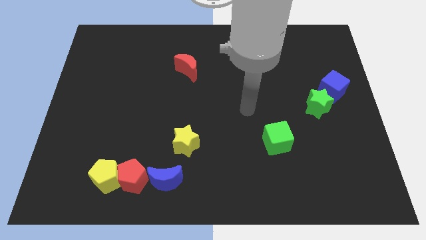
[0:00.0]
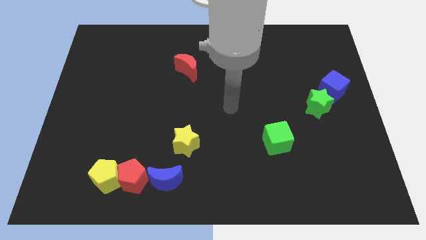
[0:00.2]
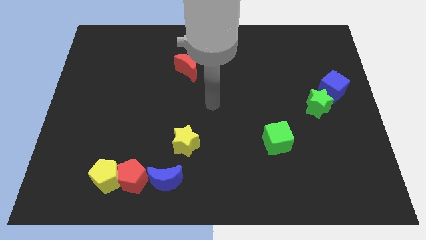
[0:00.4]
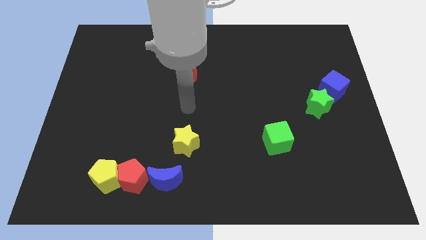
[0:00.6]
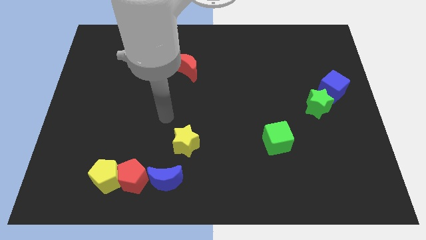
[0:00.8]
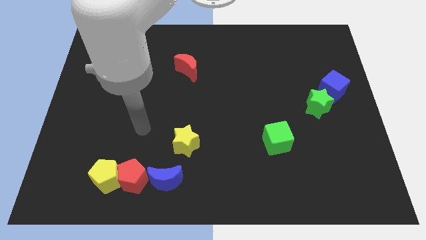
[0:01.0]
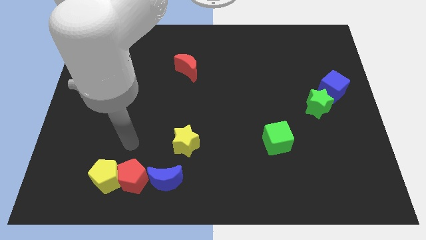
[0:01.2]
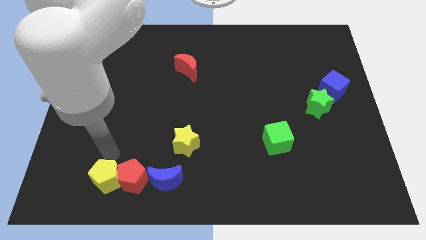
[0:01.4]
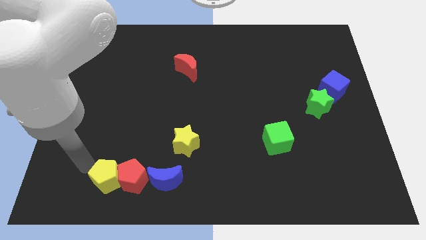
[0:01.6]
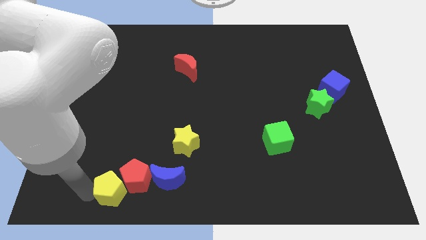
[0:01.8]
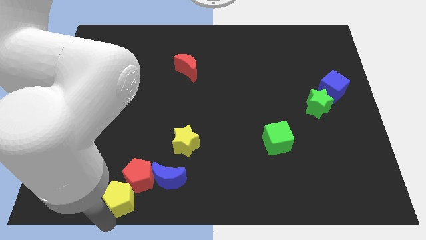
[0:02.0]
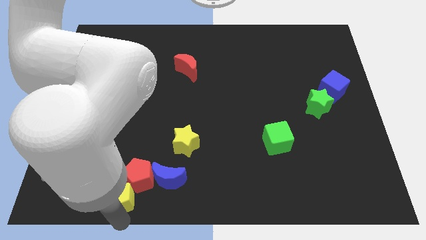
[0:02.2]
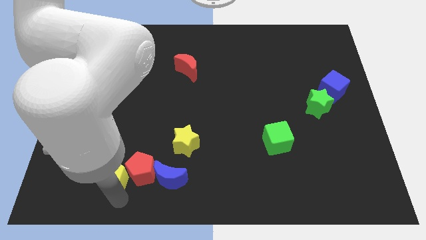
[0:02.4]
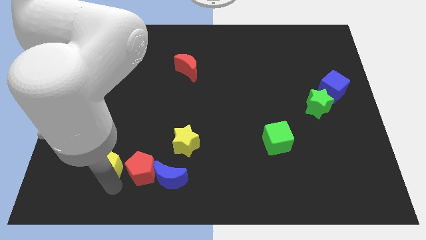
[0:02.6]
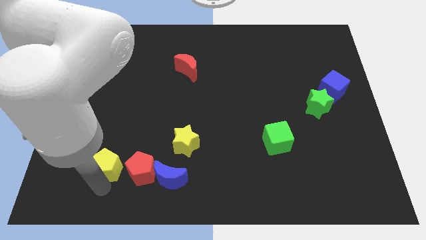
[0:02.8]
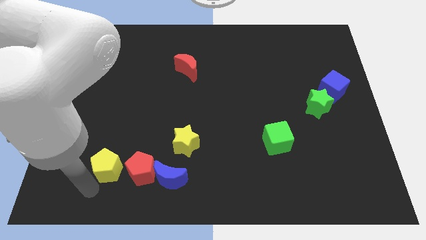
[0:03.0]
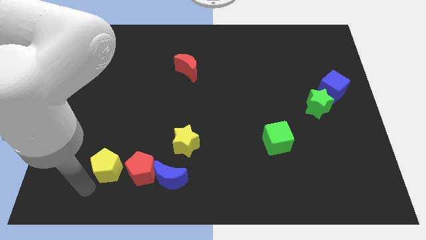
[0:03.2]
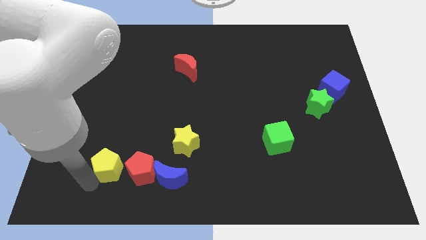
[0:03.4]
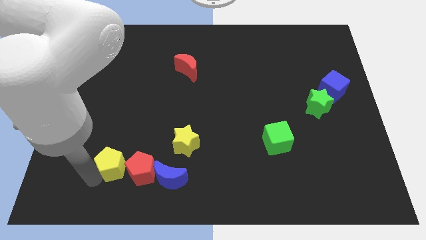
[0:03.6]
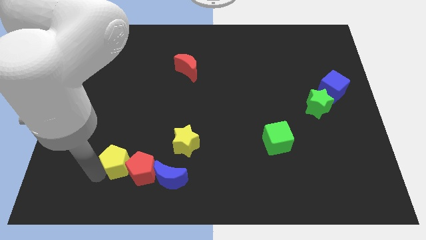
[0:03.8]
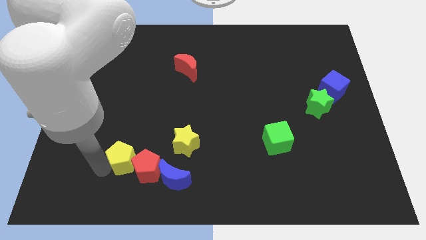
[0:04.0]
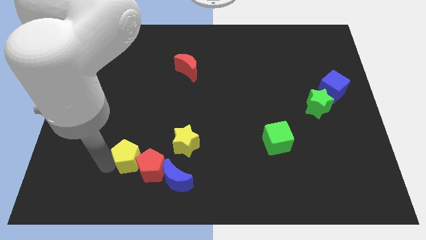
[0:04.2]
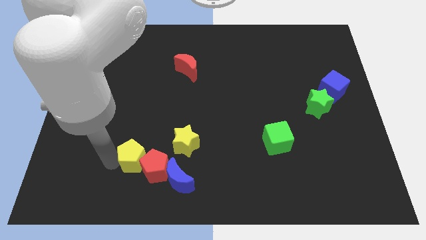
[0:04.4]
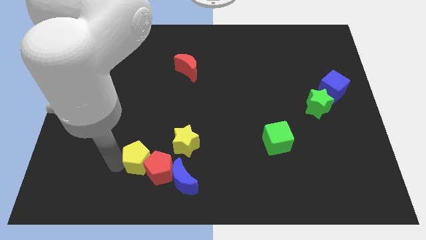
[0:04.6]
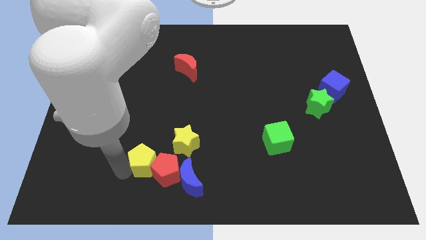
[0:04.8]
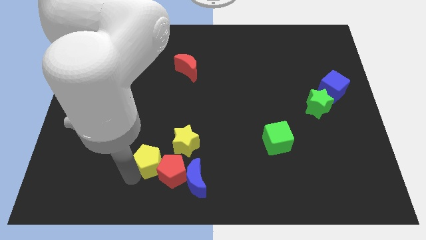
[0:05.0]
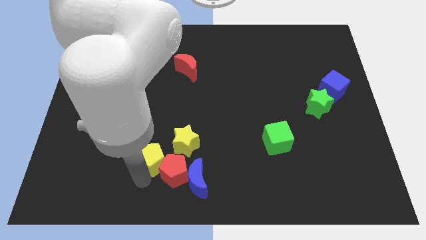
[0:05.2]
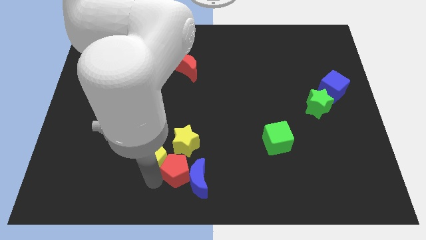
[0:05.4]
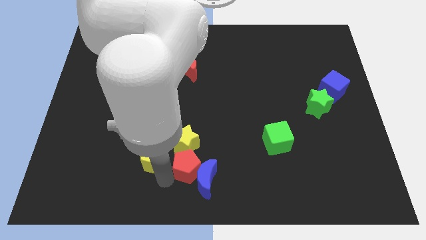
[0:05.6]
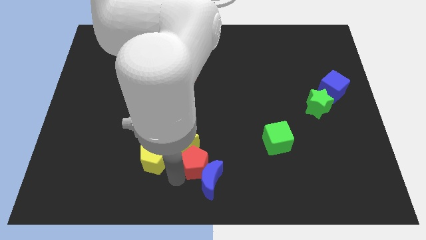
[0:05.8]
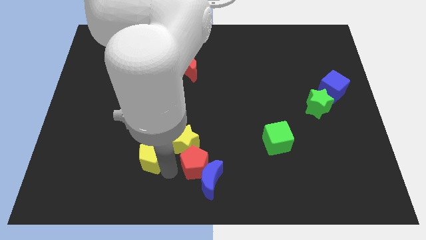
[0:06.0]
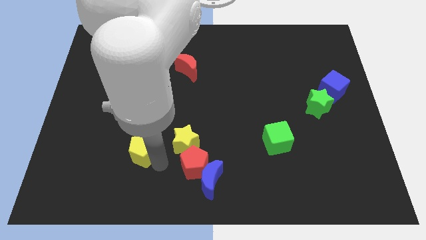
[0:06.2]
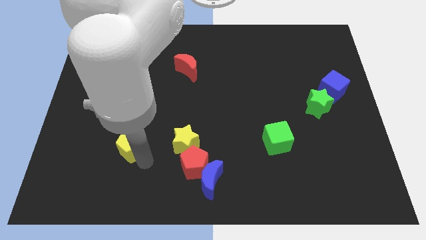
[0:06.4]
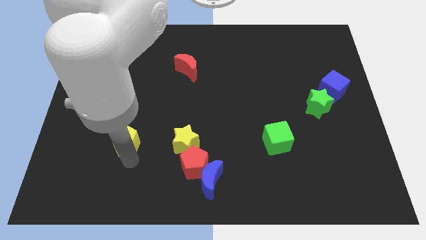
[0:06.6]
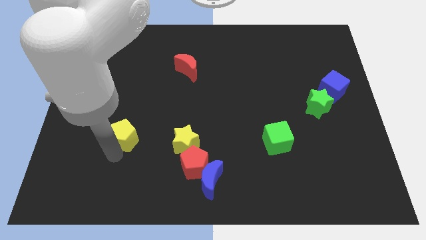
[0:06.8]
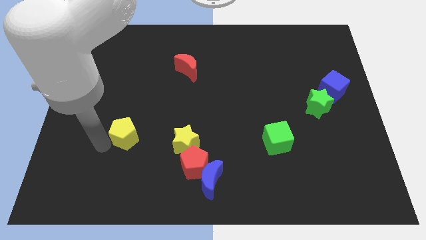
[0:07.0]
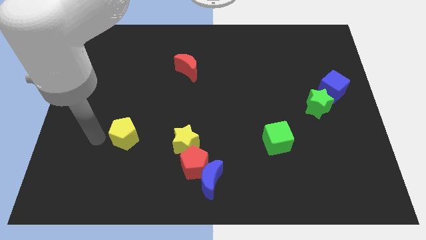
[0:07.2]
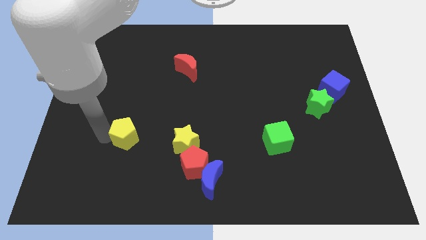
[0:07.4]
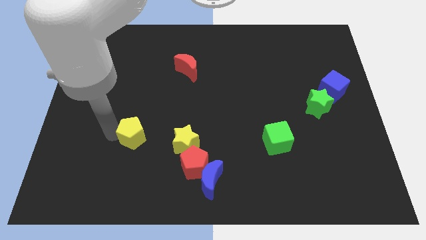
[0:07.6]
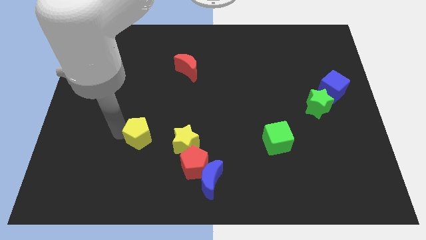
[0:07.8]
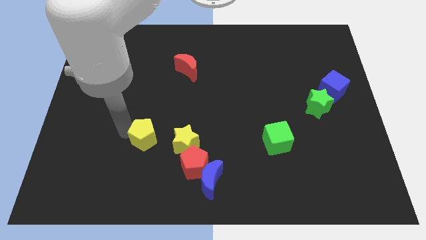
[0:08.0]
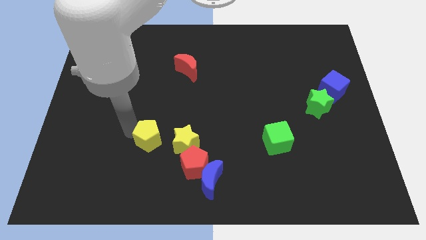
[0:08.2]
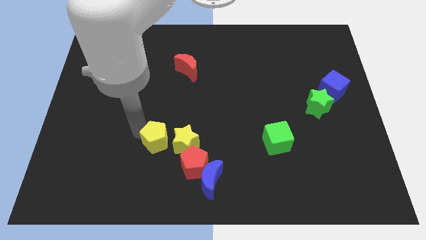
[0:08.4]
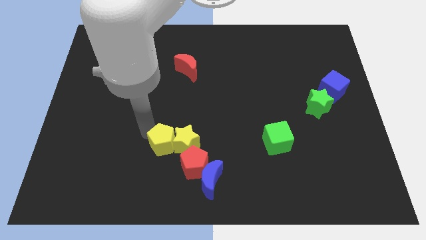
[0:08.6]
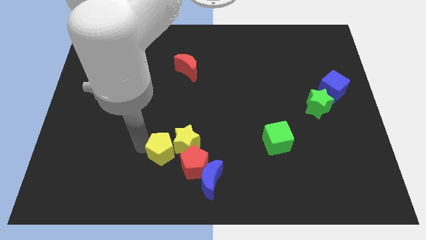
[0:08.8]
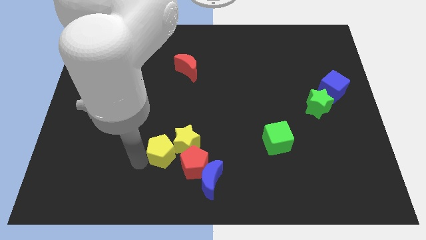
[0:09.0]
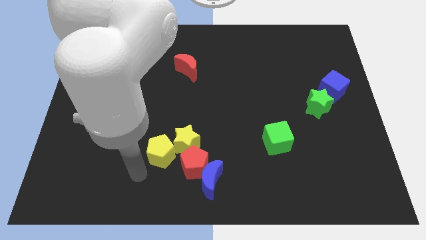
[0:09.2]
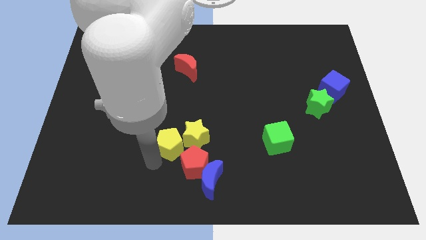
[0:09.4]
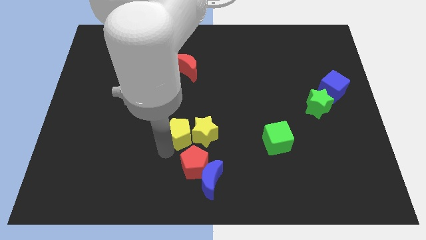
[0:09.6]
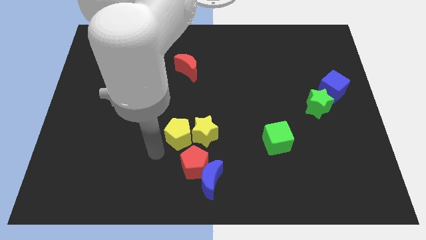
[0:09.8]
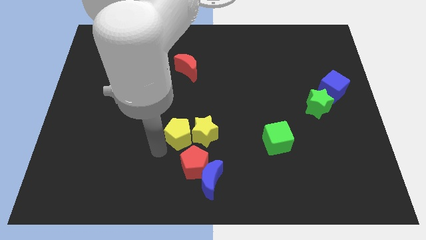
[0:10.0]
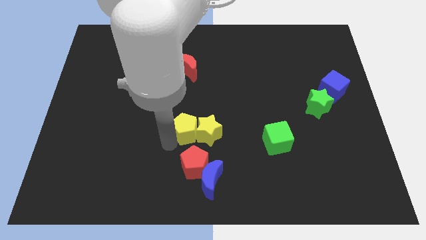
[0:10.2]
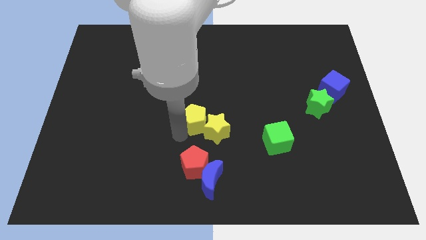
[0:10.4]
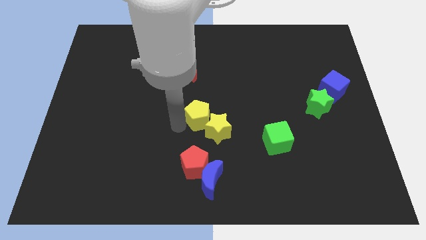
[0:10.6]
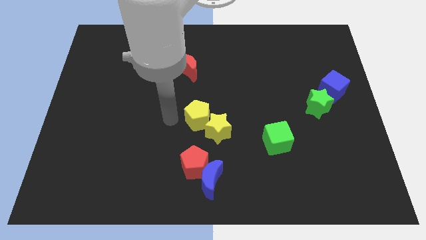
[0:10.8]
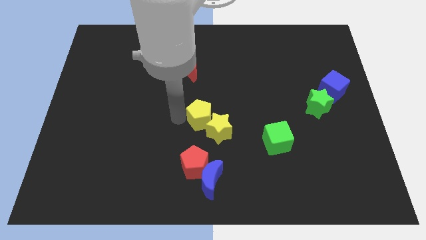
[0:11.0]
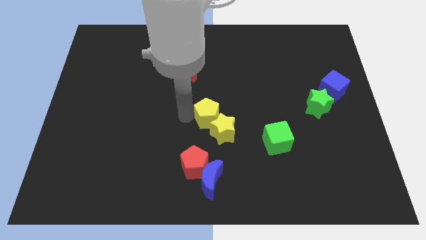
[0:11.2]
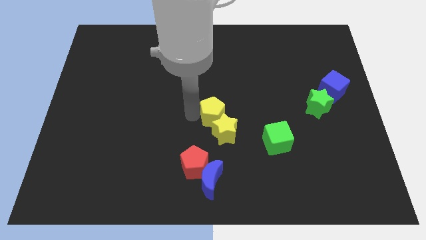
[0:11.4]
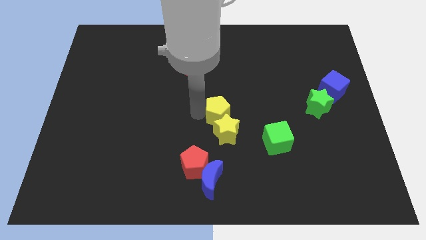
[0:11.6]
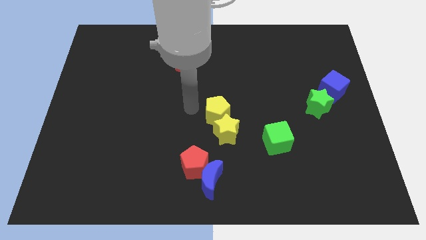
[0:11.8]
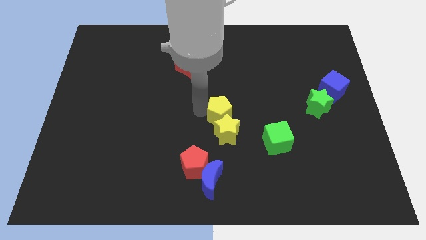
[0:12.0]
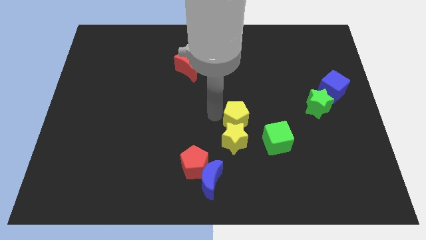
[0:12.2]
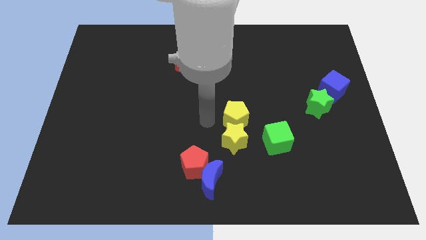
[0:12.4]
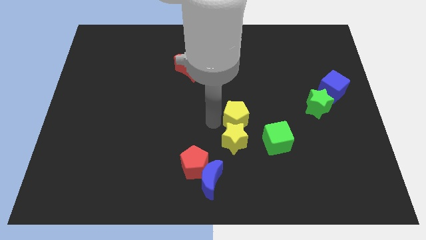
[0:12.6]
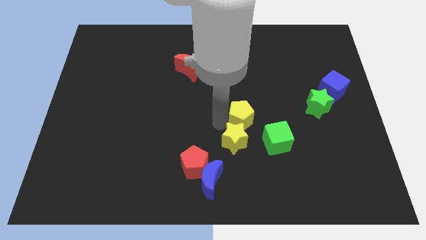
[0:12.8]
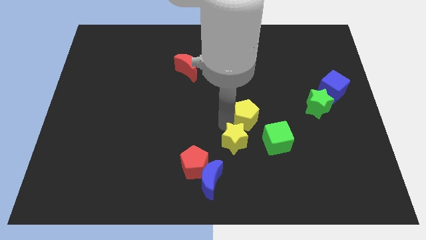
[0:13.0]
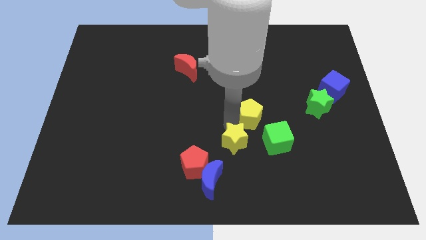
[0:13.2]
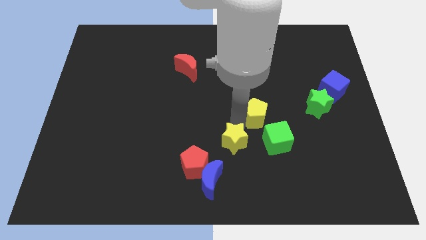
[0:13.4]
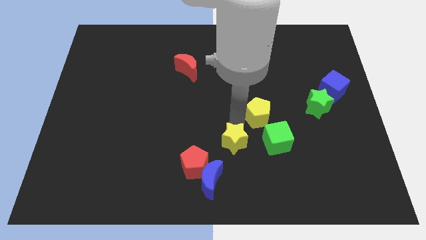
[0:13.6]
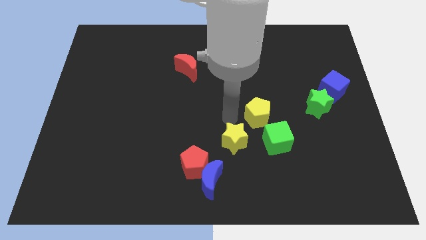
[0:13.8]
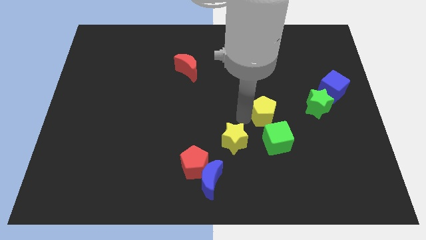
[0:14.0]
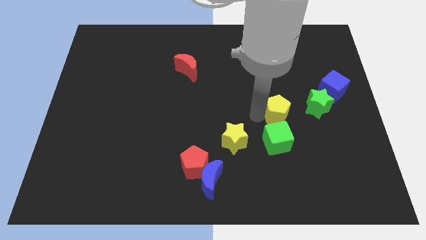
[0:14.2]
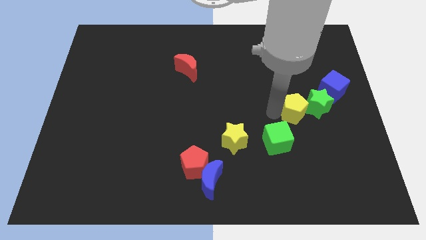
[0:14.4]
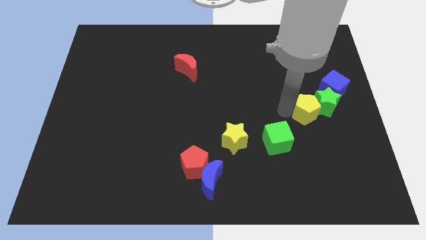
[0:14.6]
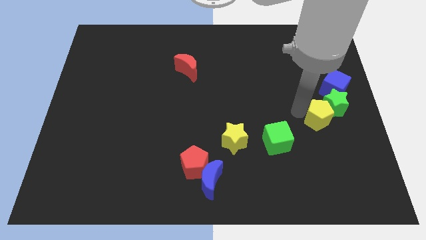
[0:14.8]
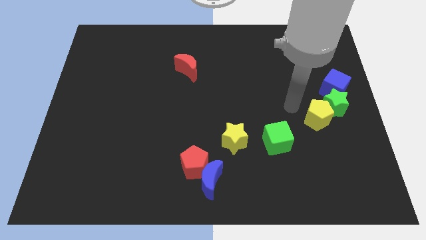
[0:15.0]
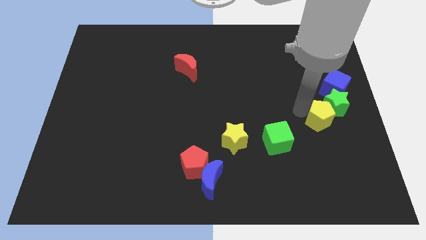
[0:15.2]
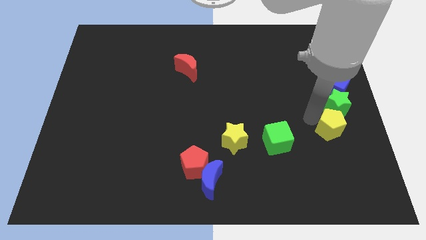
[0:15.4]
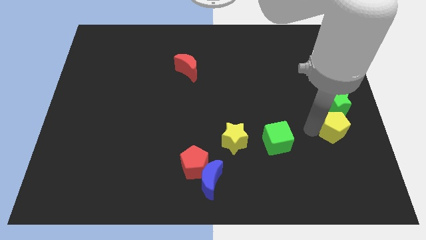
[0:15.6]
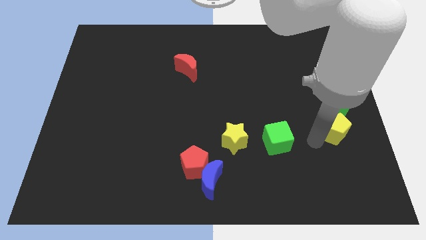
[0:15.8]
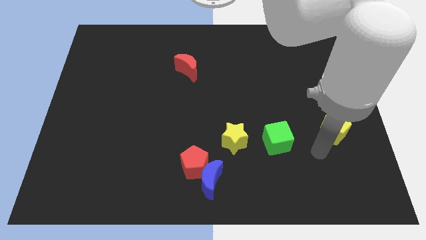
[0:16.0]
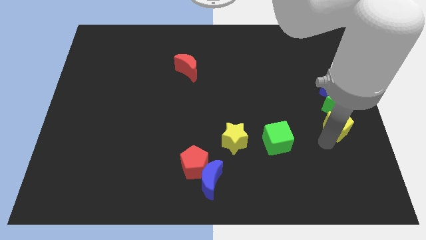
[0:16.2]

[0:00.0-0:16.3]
put the yellow pentagon to the right side of the board

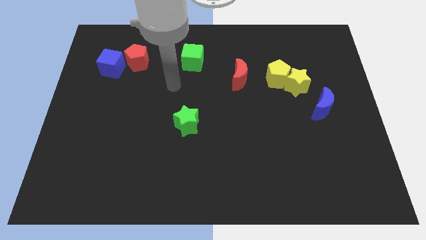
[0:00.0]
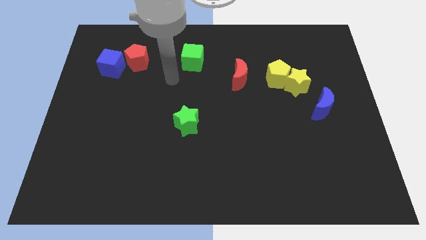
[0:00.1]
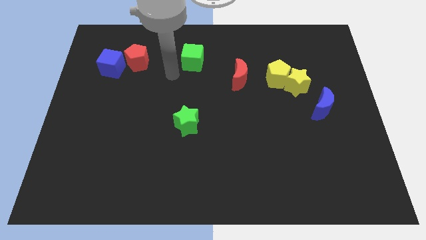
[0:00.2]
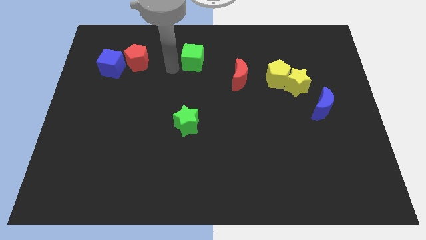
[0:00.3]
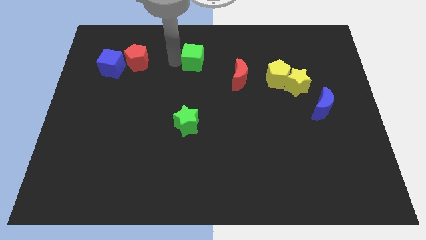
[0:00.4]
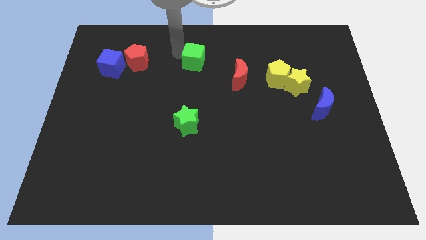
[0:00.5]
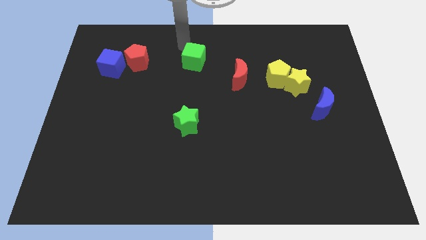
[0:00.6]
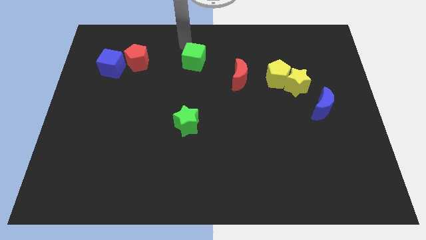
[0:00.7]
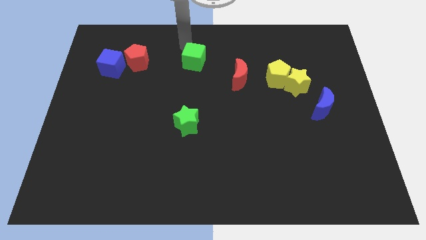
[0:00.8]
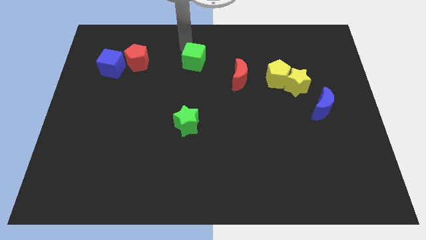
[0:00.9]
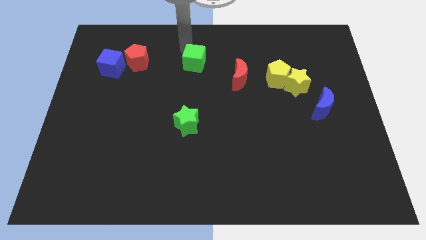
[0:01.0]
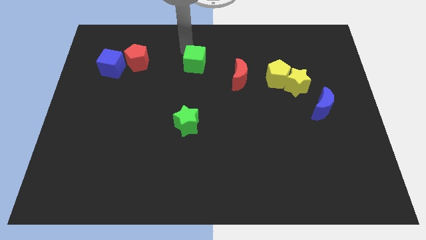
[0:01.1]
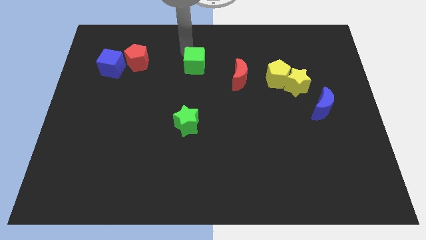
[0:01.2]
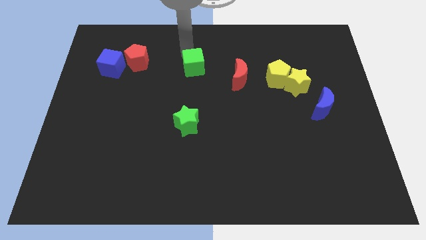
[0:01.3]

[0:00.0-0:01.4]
slide the green cube to the middle
